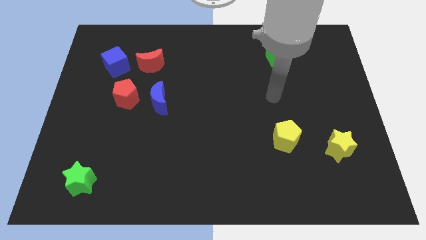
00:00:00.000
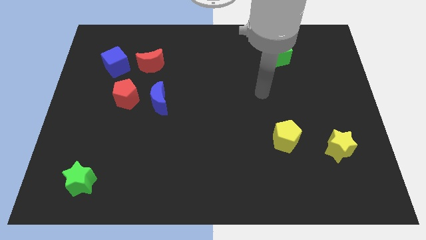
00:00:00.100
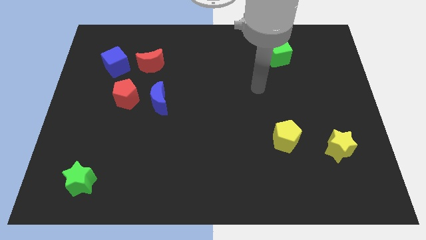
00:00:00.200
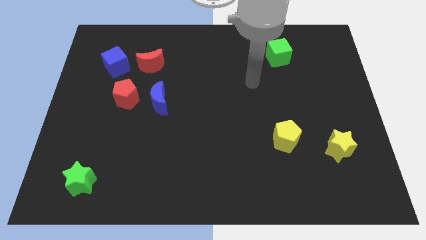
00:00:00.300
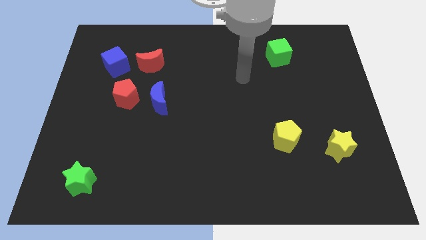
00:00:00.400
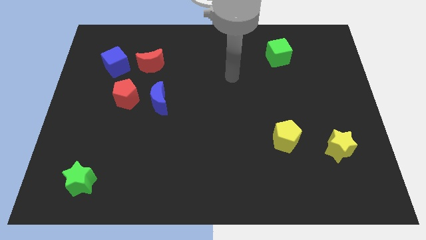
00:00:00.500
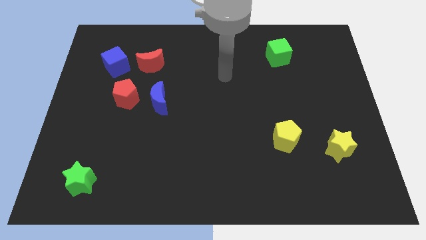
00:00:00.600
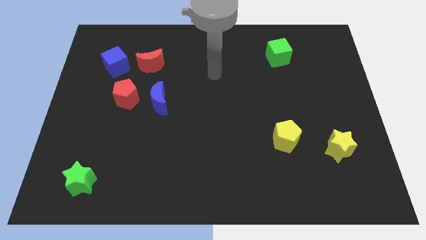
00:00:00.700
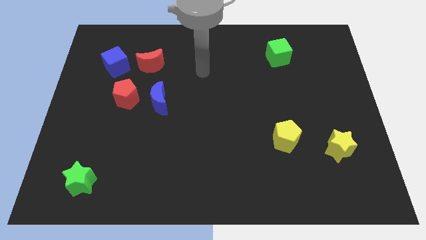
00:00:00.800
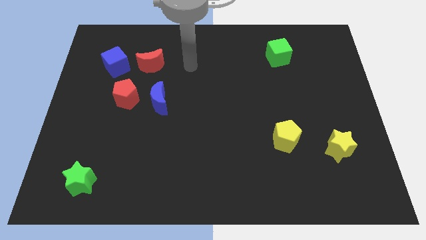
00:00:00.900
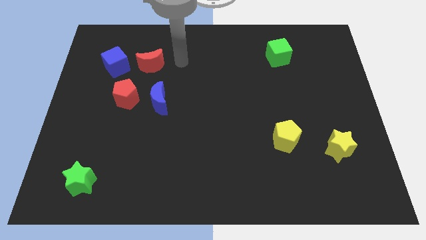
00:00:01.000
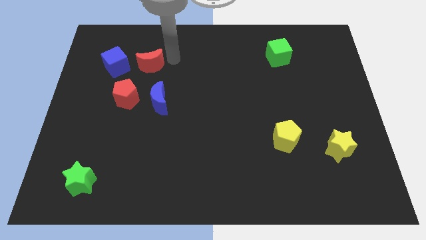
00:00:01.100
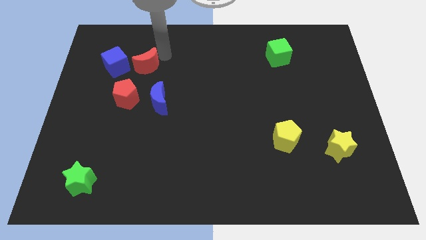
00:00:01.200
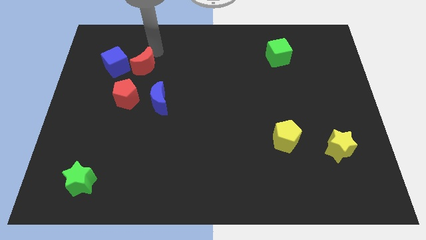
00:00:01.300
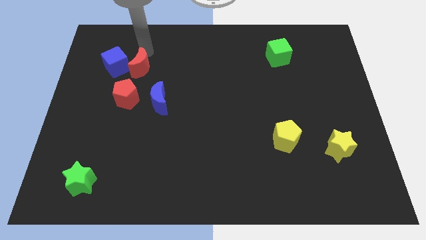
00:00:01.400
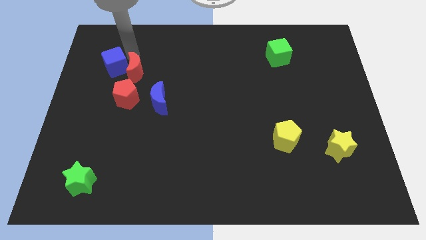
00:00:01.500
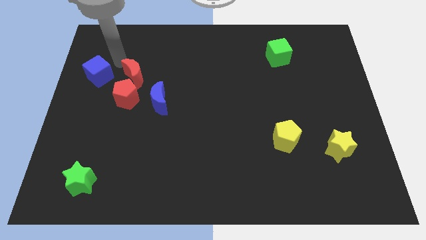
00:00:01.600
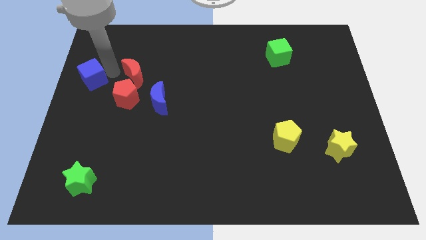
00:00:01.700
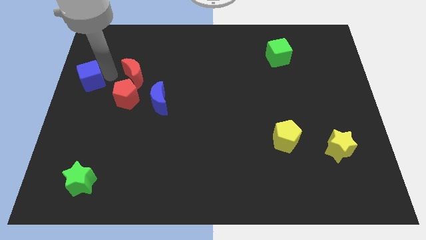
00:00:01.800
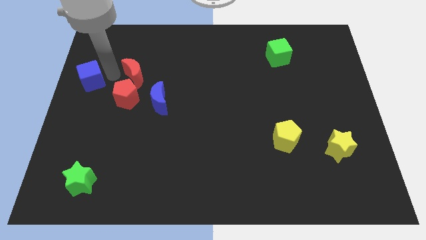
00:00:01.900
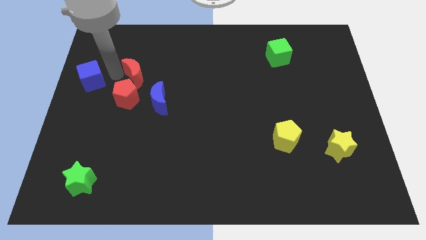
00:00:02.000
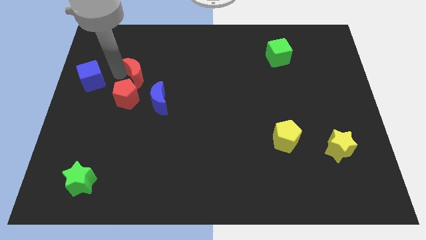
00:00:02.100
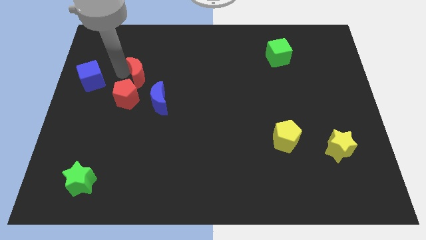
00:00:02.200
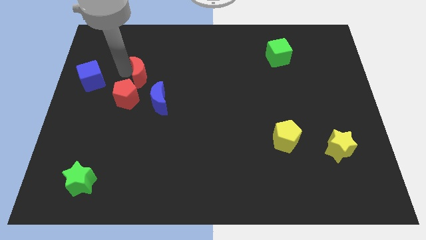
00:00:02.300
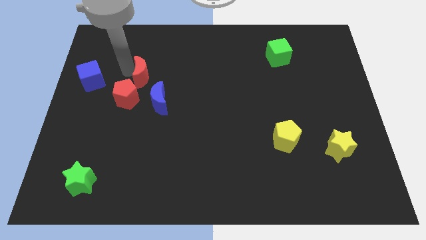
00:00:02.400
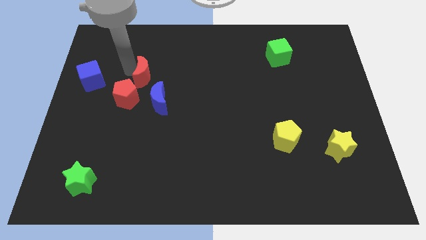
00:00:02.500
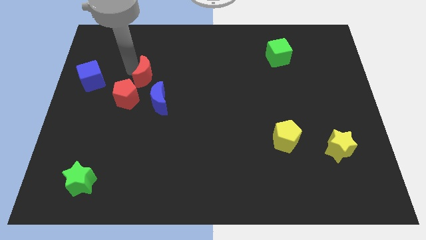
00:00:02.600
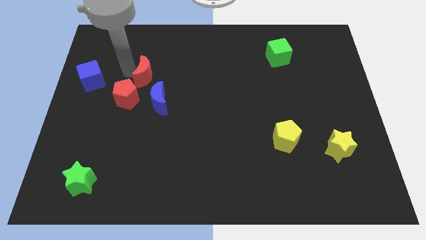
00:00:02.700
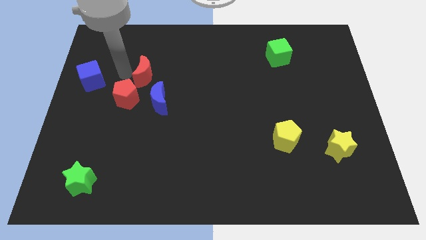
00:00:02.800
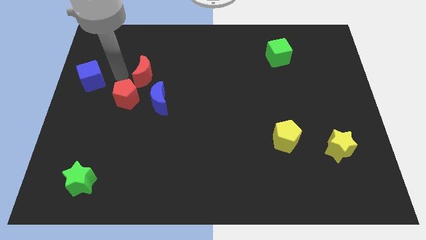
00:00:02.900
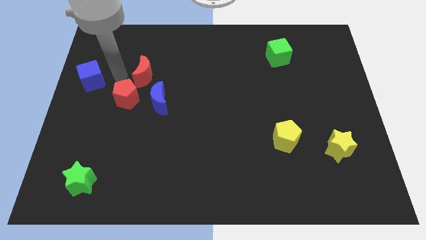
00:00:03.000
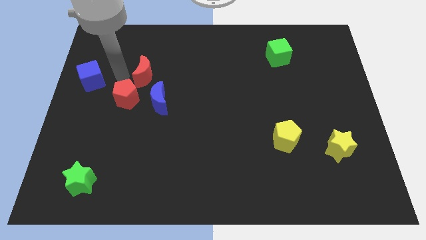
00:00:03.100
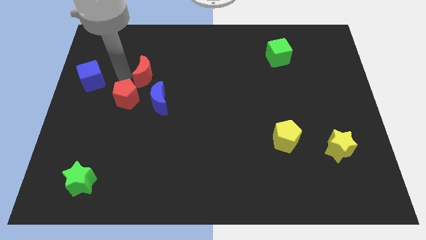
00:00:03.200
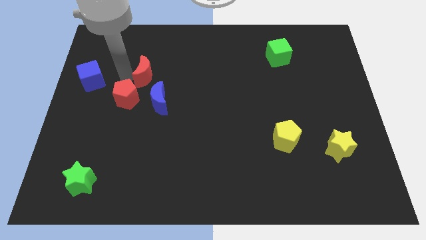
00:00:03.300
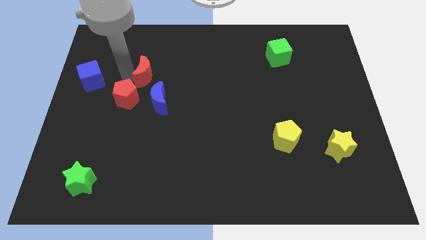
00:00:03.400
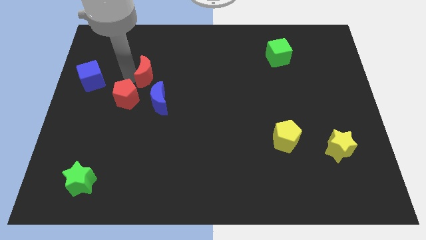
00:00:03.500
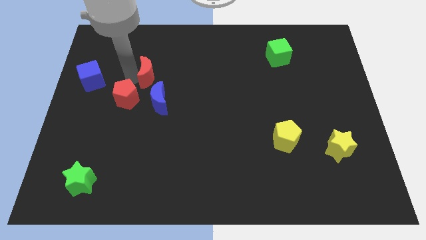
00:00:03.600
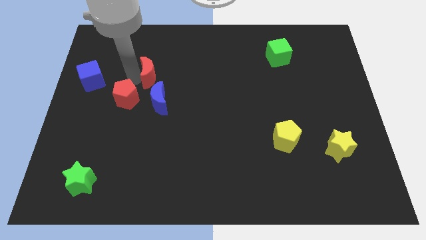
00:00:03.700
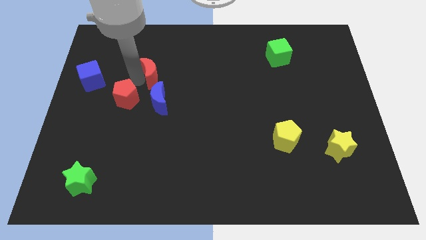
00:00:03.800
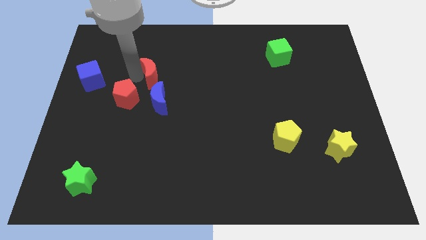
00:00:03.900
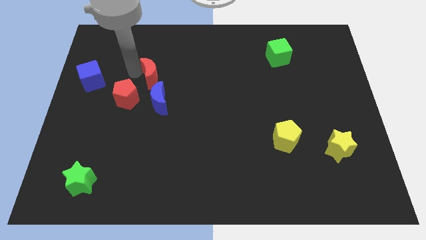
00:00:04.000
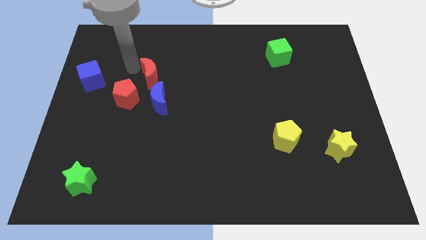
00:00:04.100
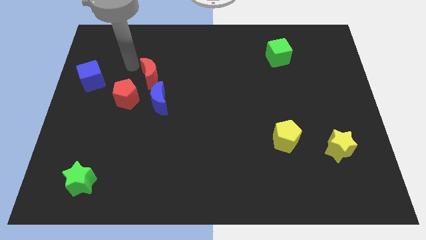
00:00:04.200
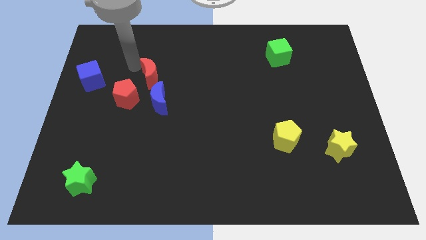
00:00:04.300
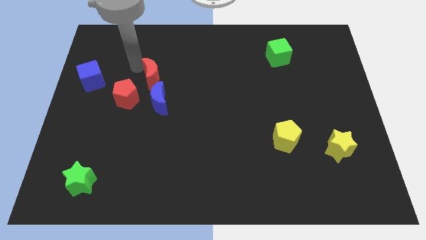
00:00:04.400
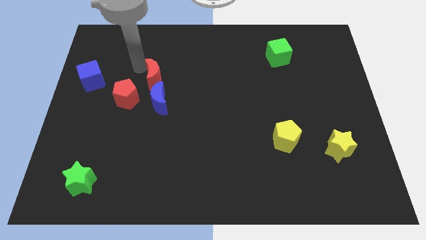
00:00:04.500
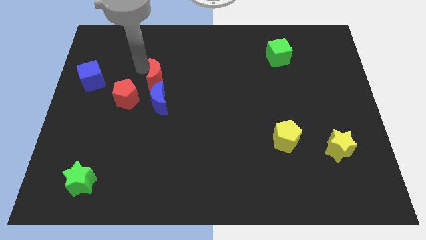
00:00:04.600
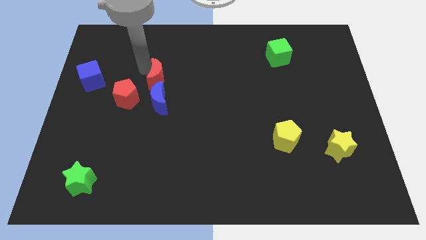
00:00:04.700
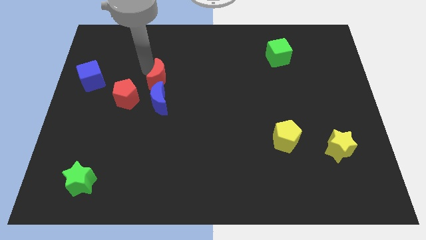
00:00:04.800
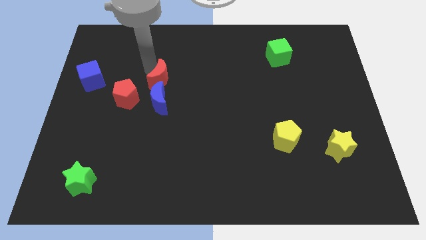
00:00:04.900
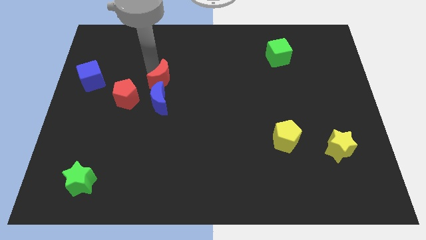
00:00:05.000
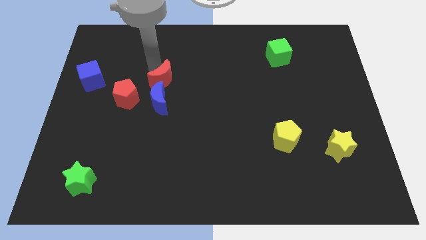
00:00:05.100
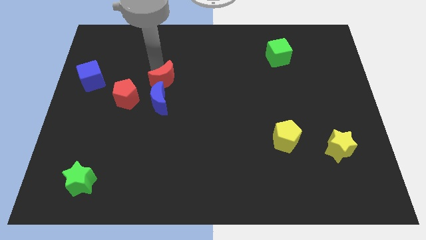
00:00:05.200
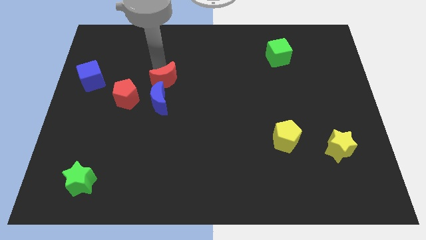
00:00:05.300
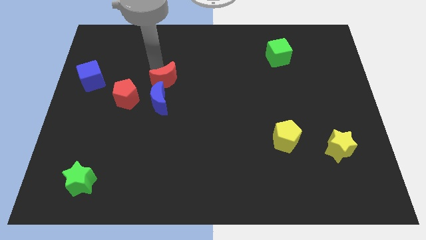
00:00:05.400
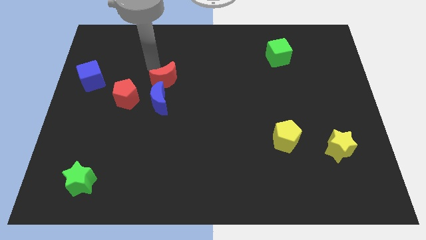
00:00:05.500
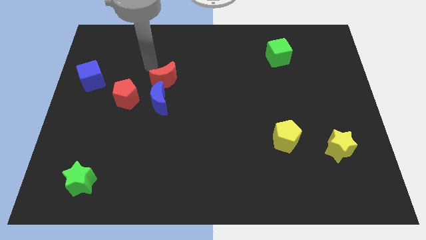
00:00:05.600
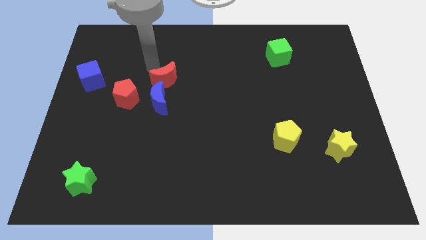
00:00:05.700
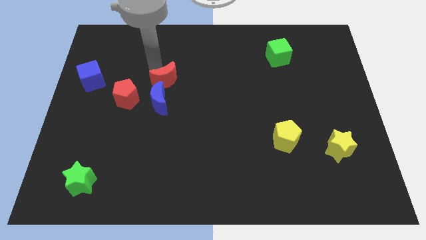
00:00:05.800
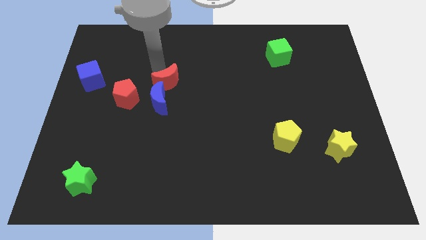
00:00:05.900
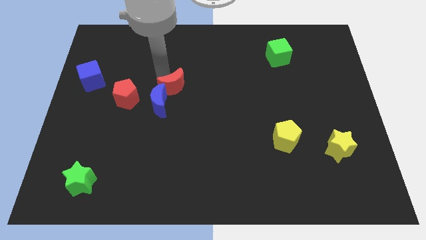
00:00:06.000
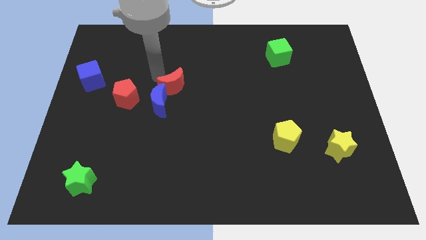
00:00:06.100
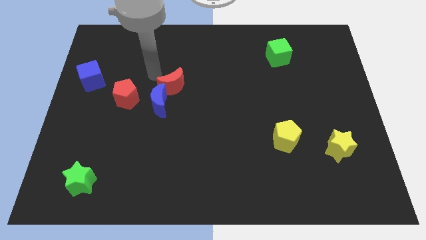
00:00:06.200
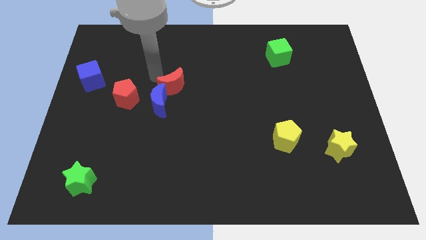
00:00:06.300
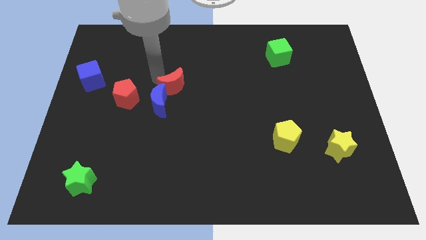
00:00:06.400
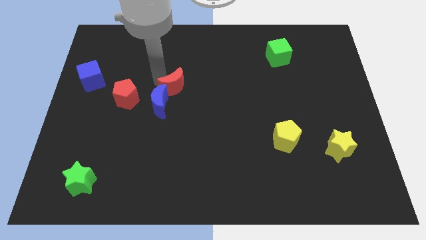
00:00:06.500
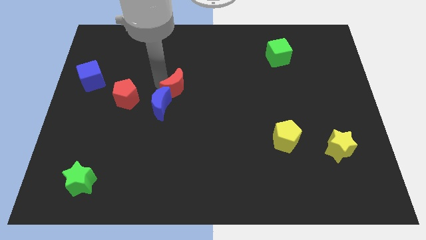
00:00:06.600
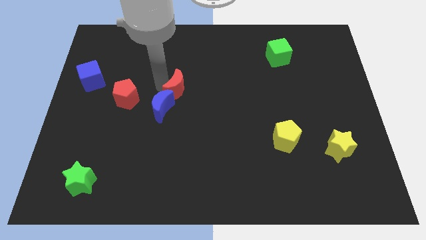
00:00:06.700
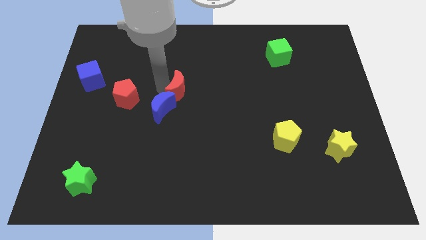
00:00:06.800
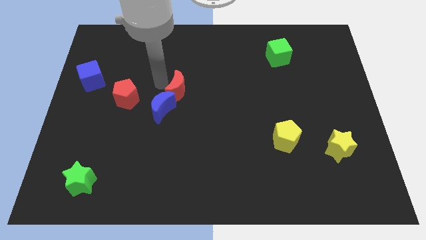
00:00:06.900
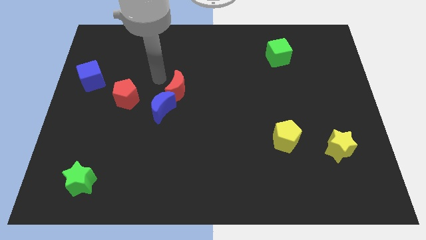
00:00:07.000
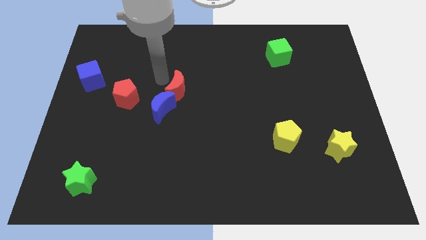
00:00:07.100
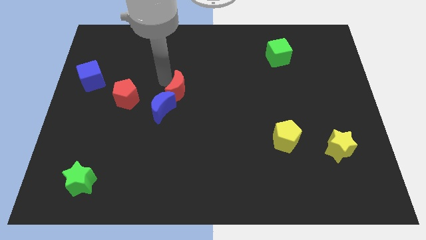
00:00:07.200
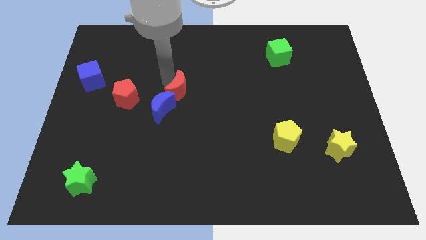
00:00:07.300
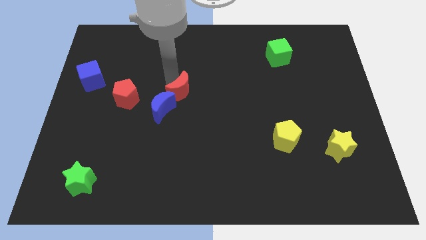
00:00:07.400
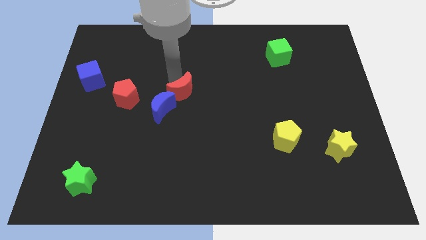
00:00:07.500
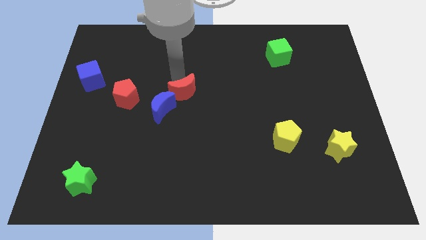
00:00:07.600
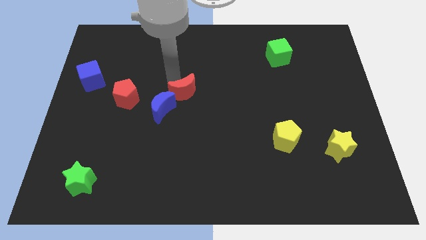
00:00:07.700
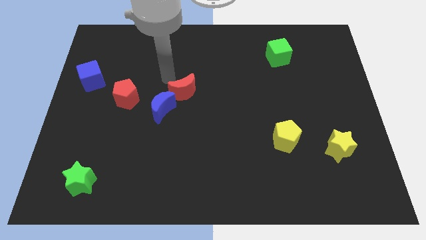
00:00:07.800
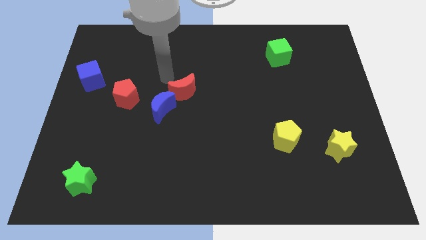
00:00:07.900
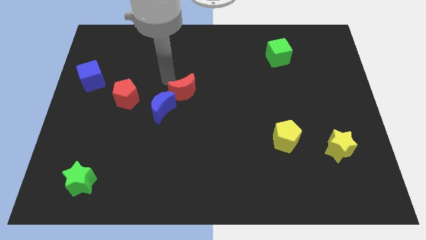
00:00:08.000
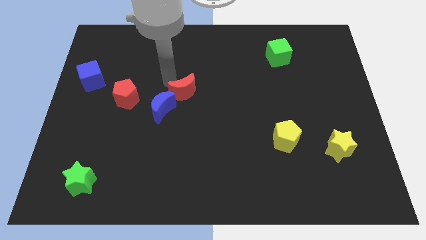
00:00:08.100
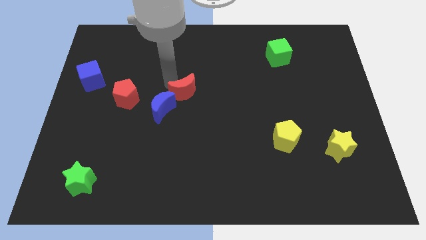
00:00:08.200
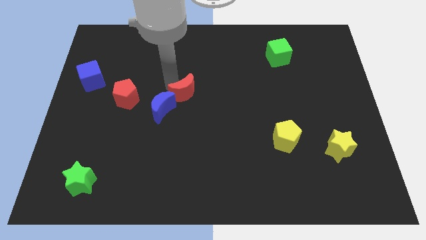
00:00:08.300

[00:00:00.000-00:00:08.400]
put the red moon to the right side of the blue moon
